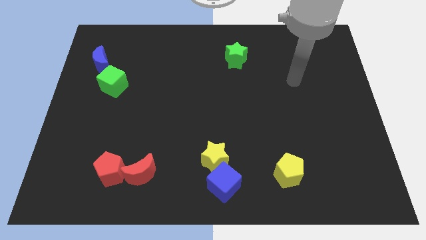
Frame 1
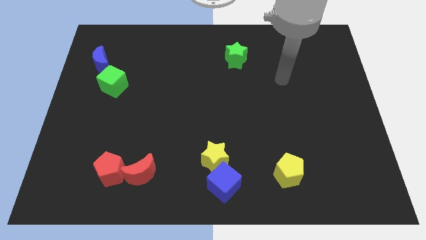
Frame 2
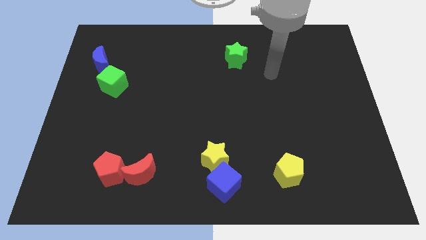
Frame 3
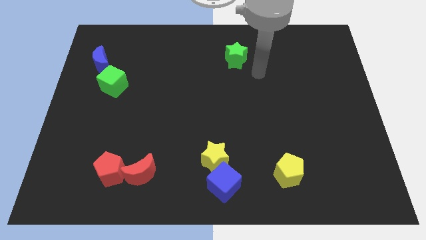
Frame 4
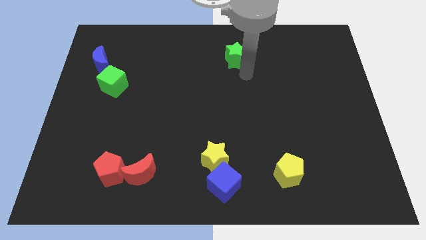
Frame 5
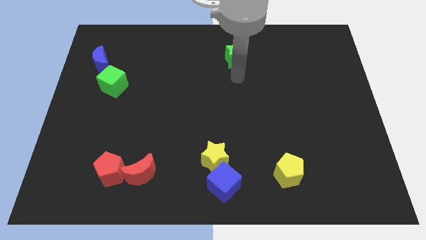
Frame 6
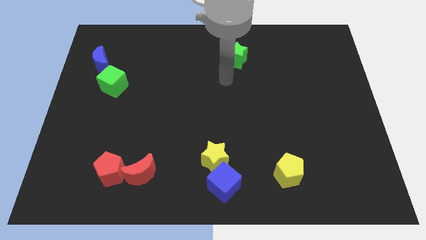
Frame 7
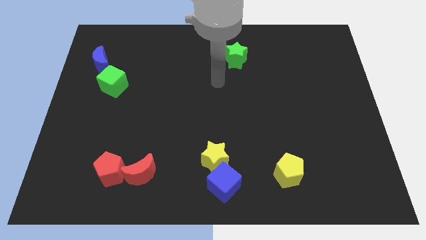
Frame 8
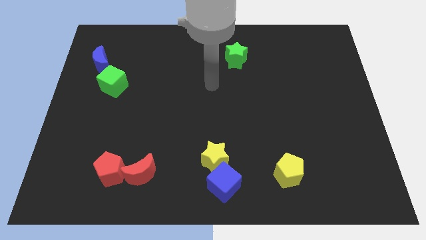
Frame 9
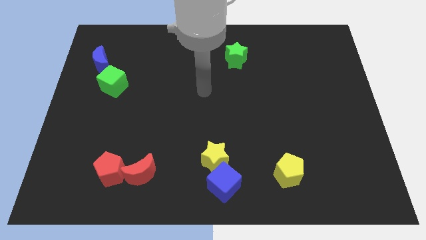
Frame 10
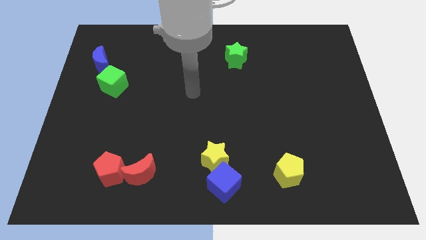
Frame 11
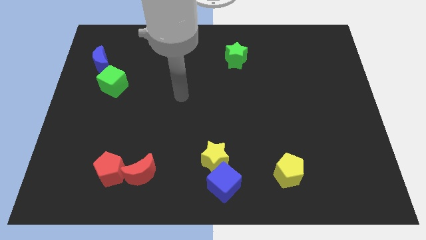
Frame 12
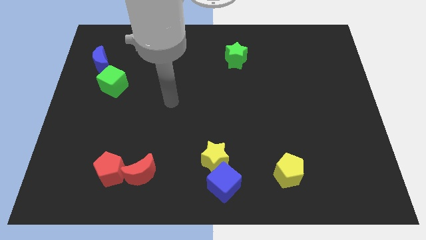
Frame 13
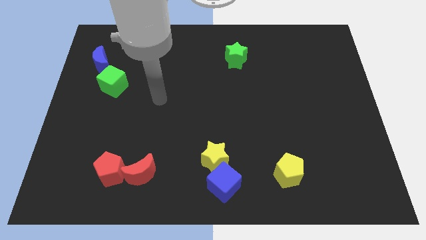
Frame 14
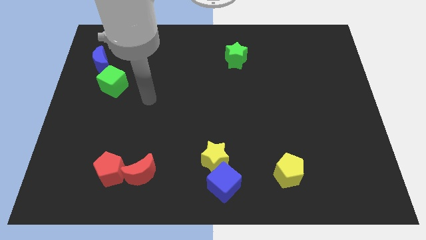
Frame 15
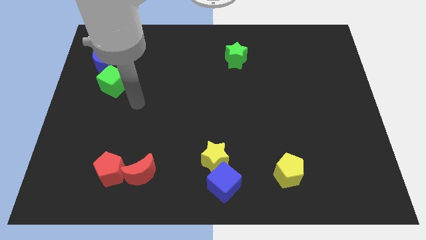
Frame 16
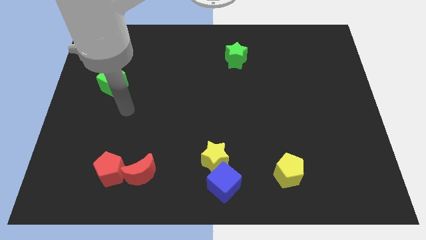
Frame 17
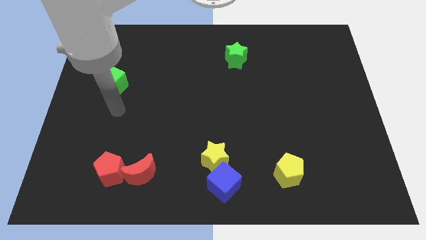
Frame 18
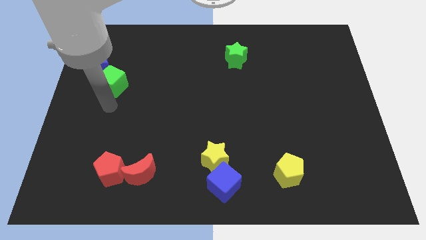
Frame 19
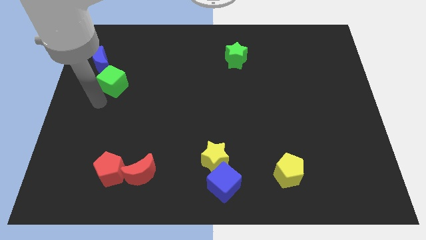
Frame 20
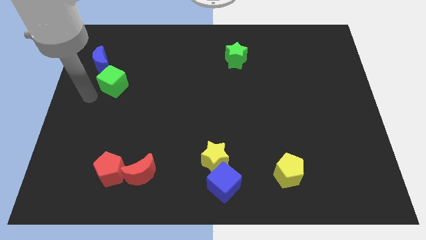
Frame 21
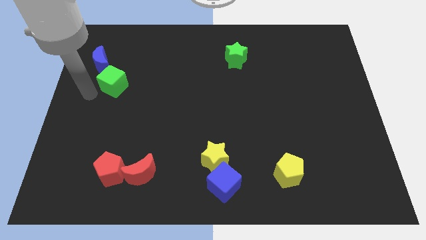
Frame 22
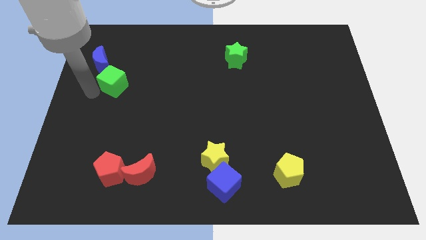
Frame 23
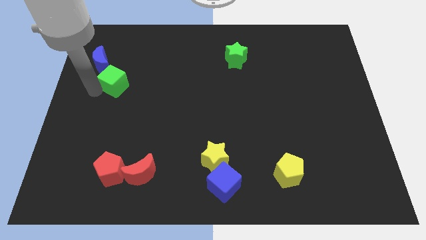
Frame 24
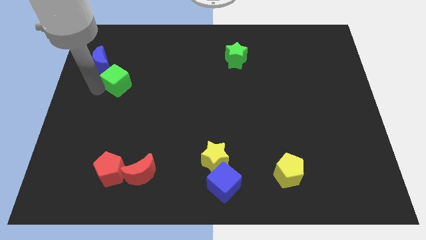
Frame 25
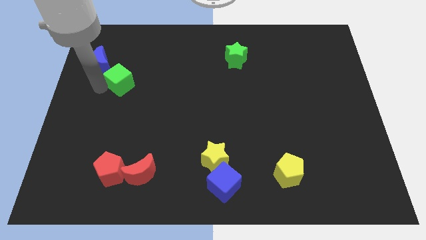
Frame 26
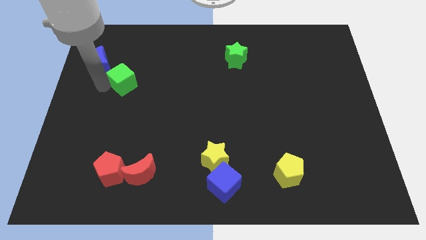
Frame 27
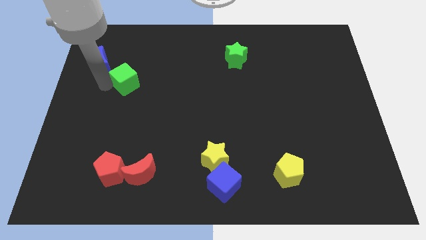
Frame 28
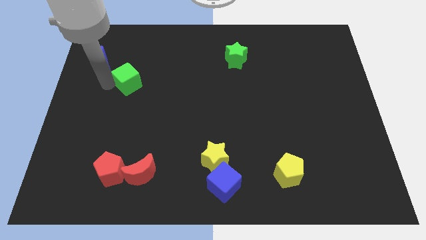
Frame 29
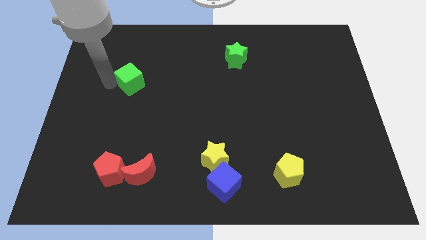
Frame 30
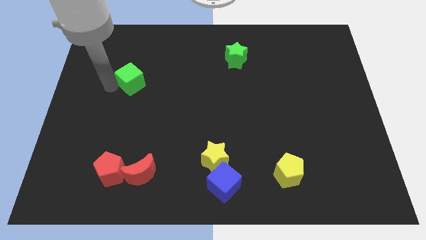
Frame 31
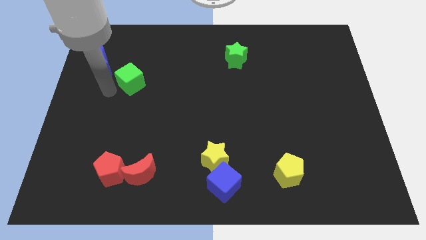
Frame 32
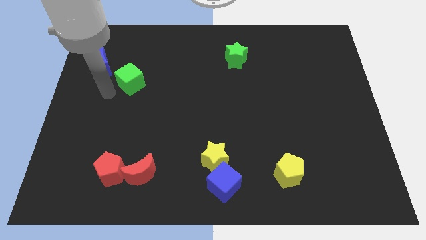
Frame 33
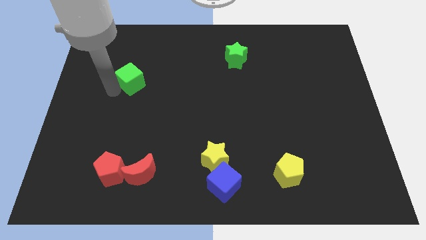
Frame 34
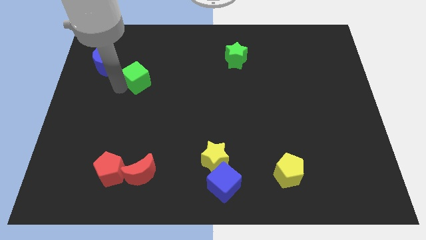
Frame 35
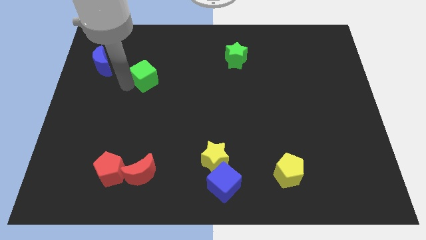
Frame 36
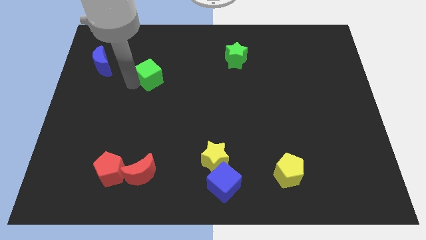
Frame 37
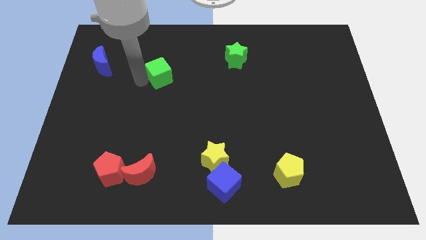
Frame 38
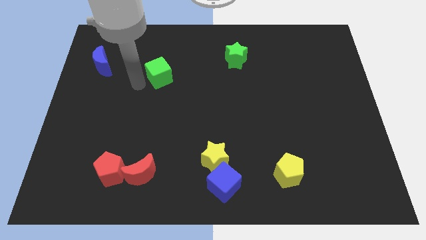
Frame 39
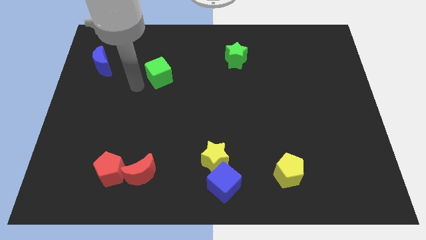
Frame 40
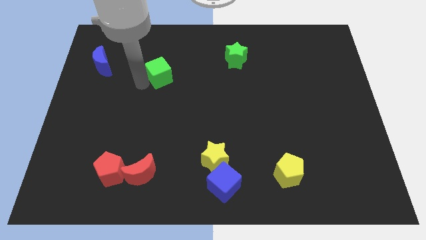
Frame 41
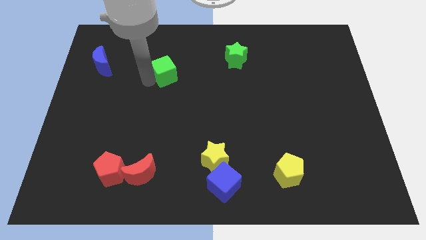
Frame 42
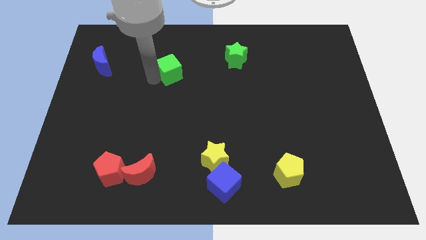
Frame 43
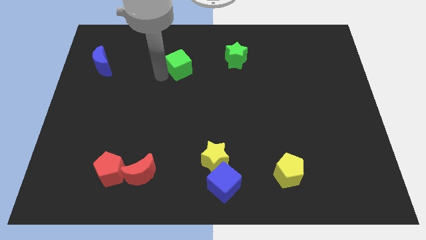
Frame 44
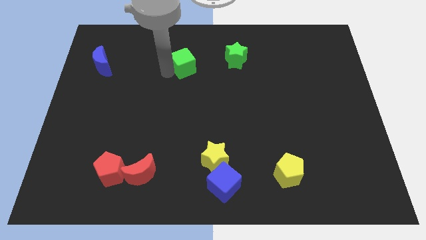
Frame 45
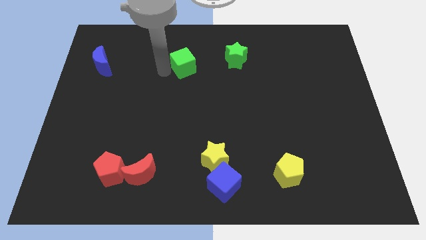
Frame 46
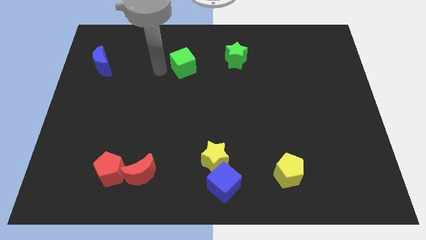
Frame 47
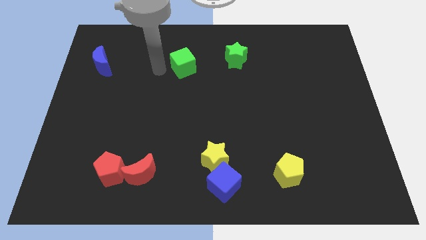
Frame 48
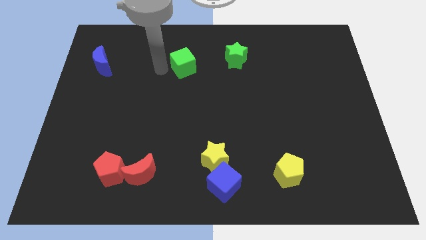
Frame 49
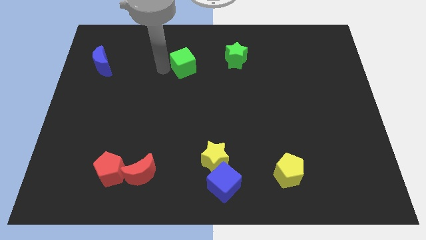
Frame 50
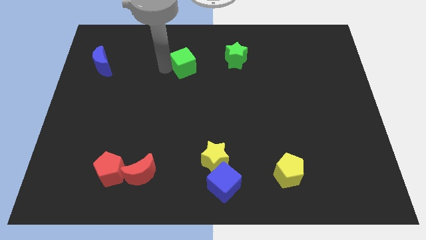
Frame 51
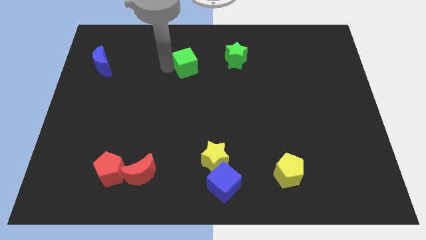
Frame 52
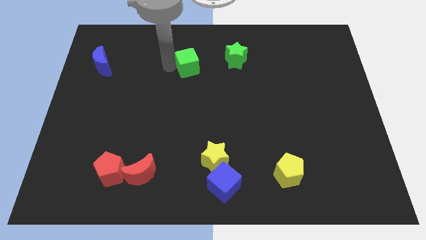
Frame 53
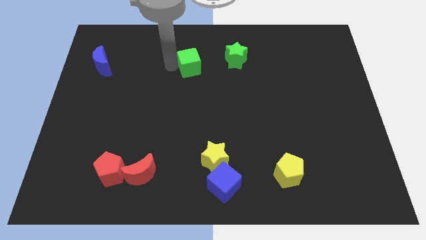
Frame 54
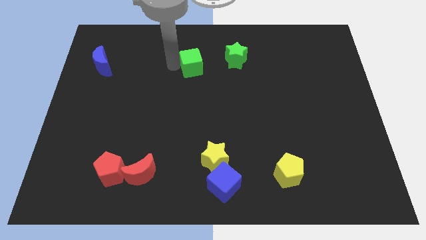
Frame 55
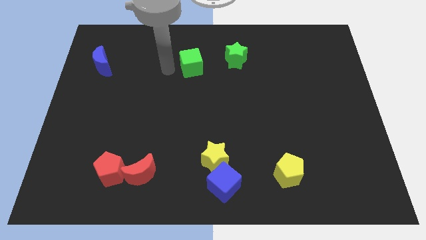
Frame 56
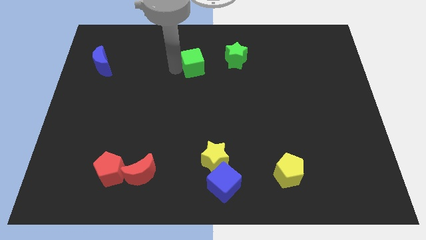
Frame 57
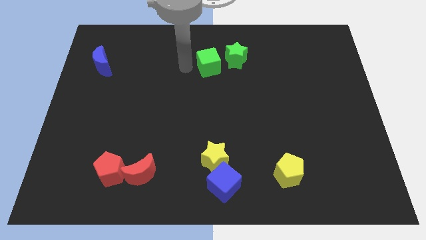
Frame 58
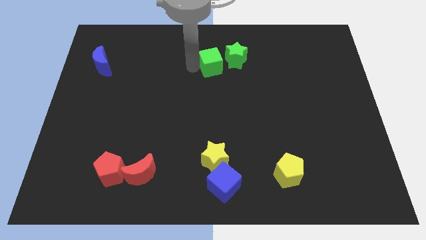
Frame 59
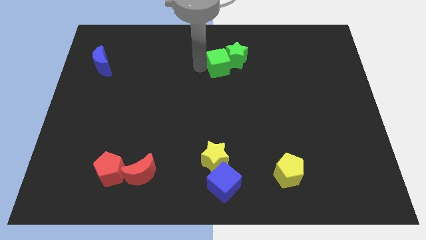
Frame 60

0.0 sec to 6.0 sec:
put the green cube to the green star
